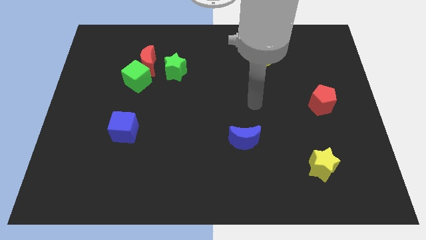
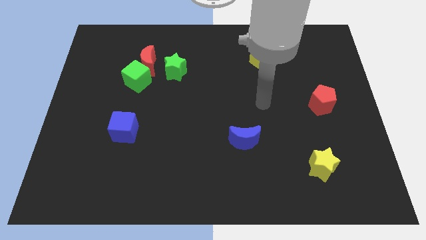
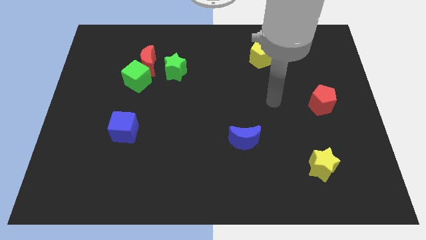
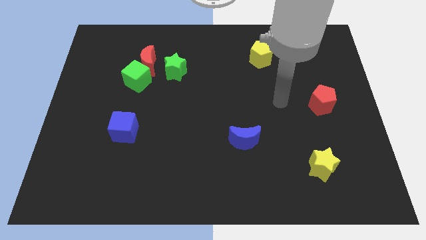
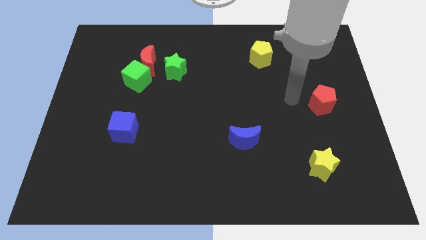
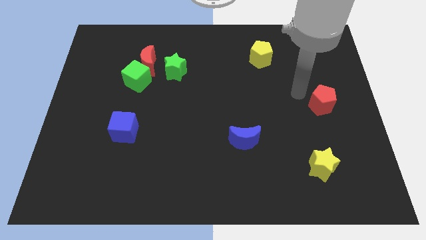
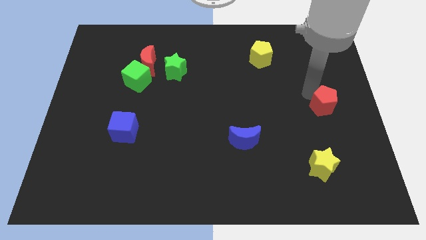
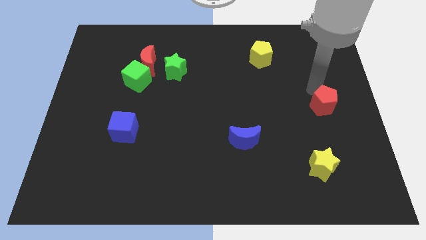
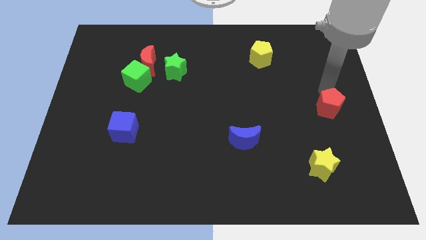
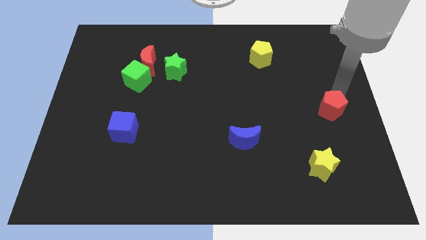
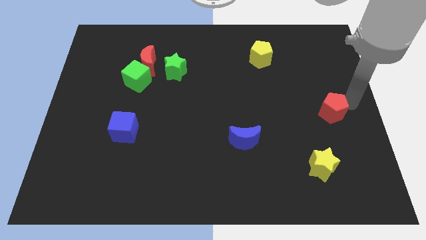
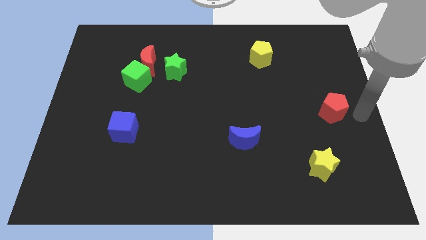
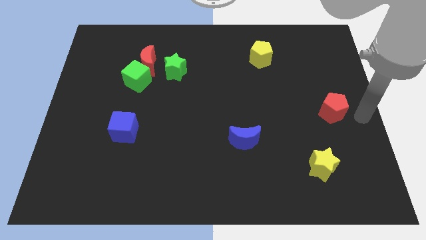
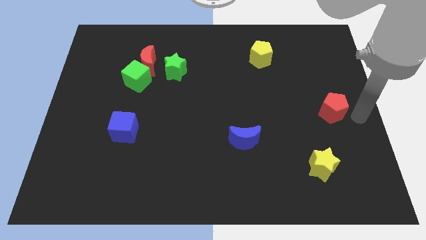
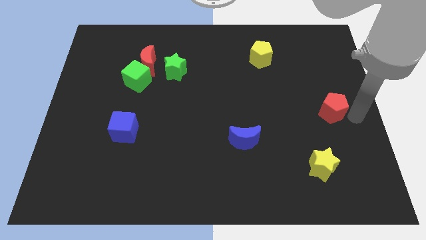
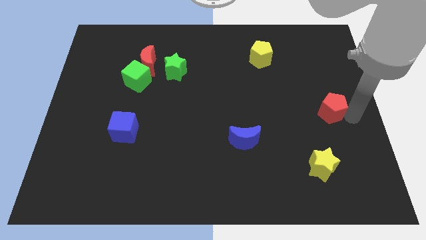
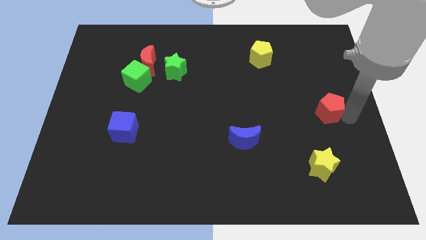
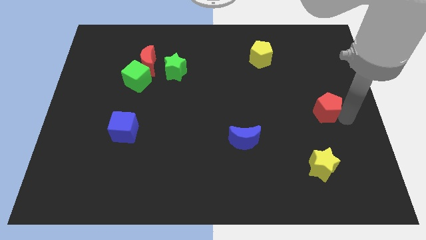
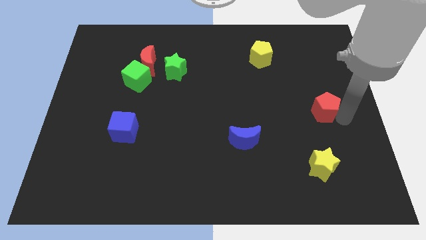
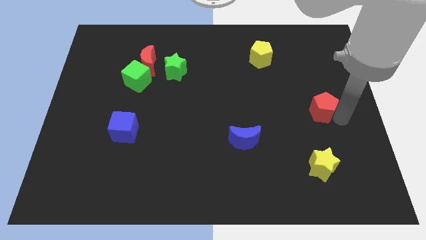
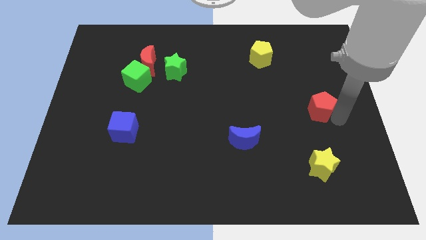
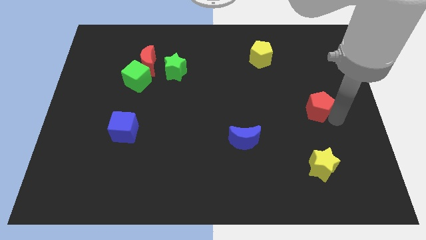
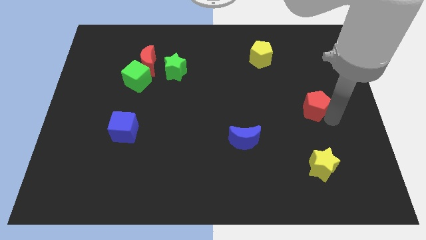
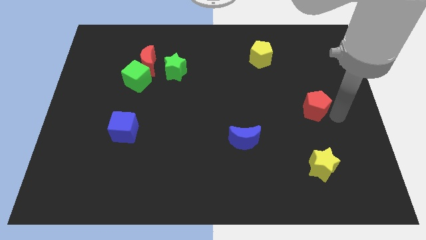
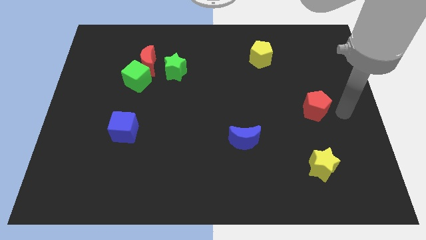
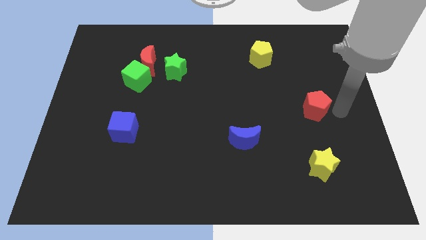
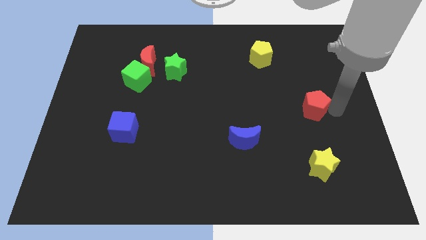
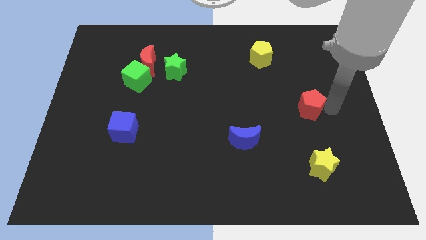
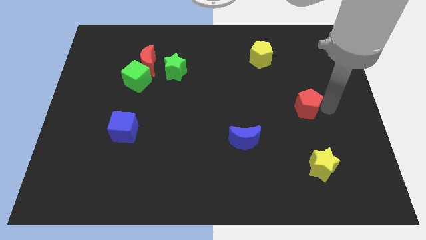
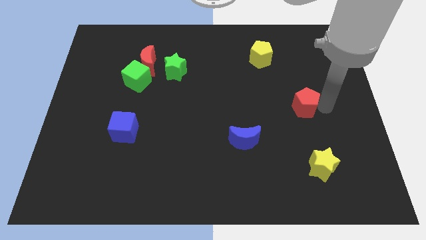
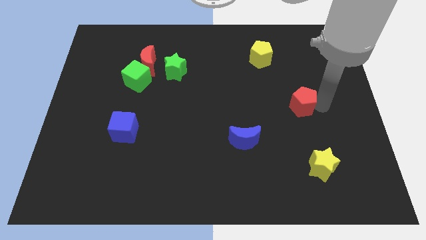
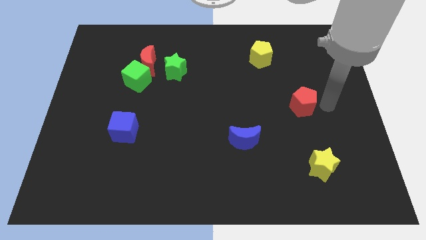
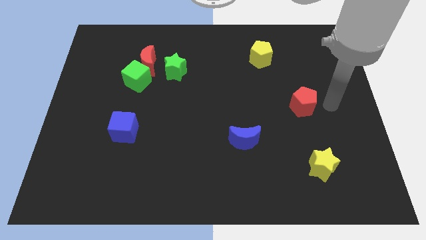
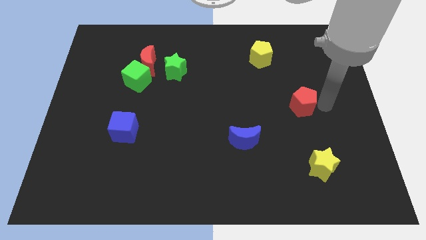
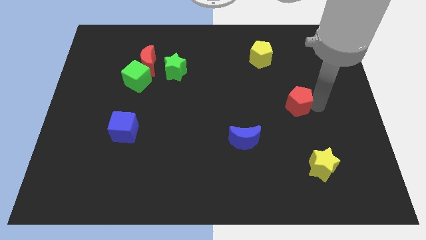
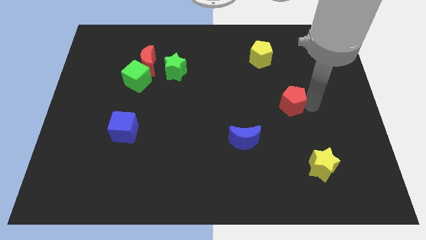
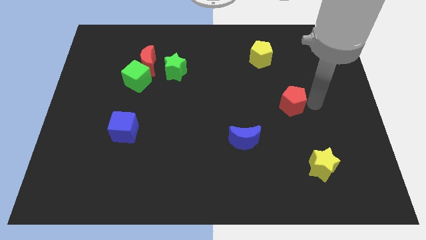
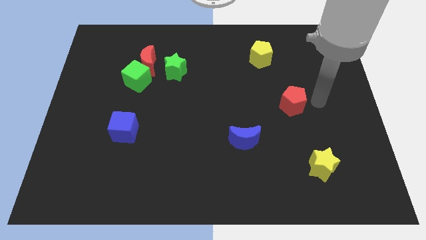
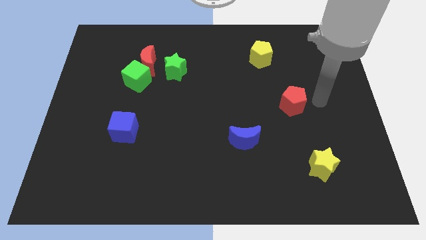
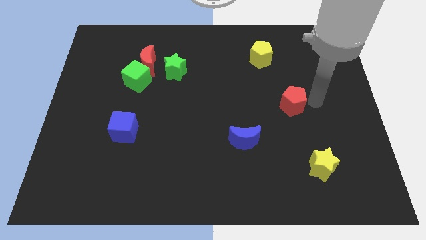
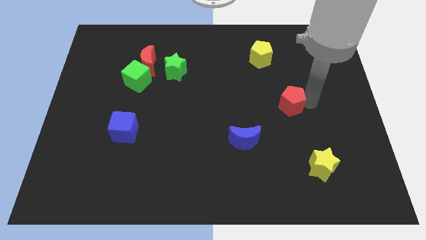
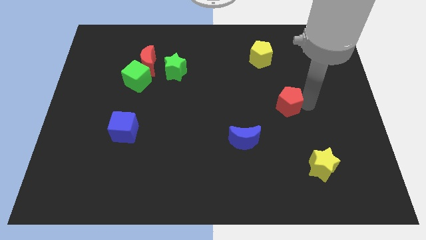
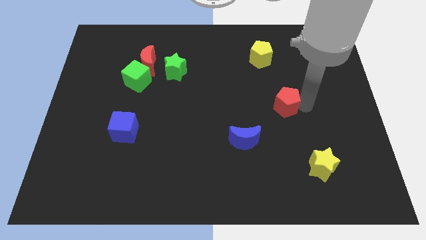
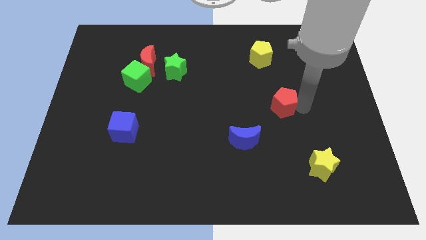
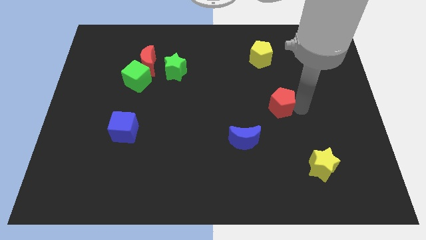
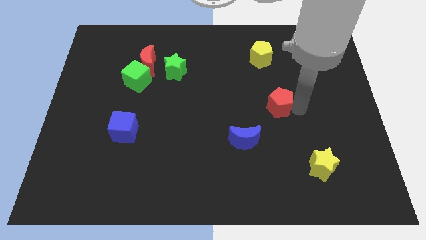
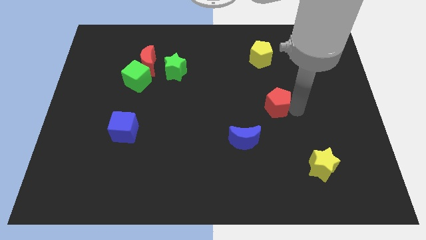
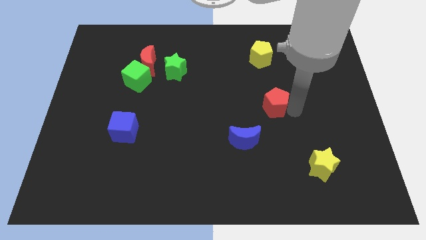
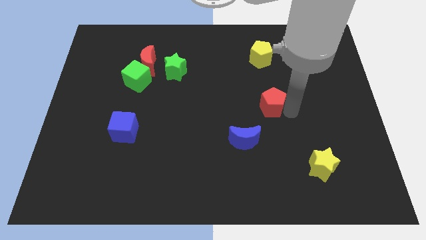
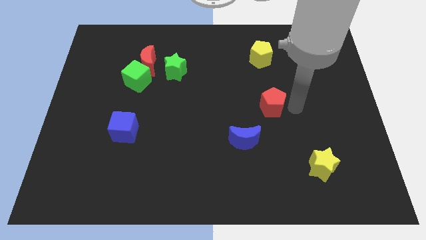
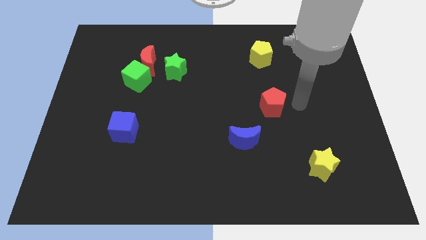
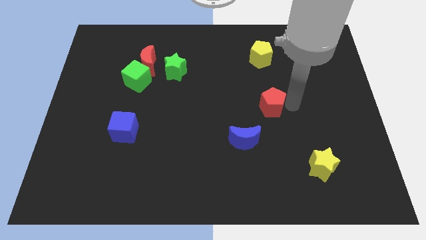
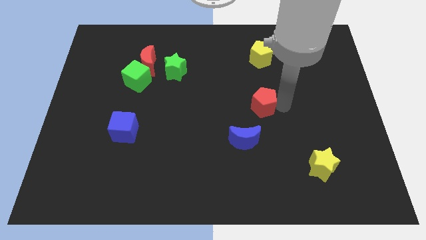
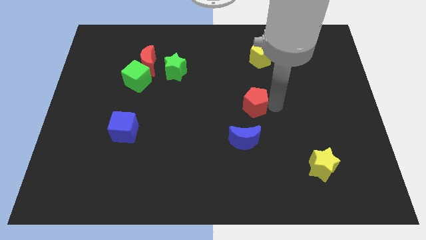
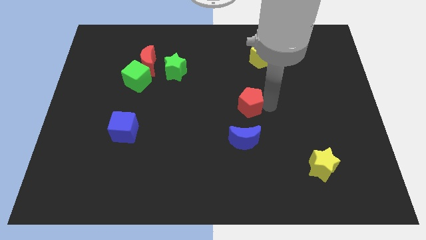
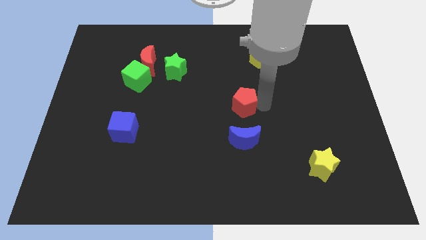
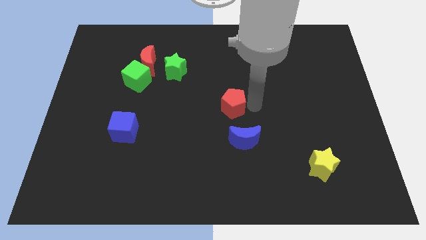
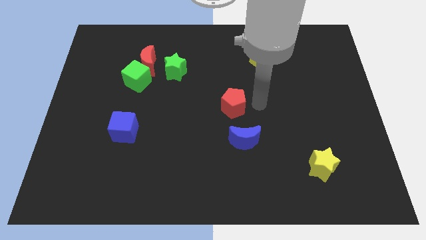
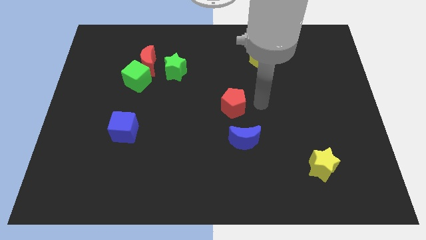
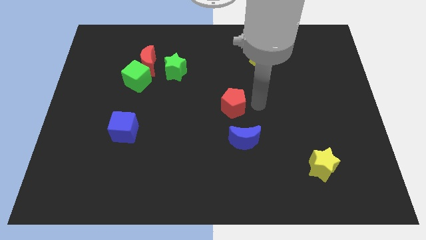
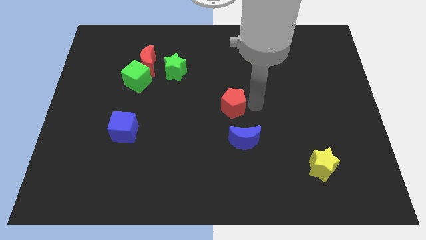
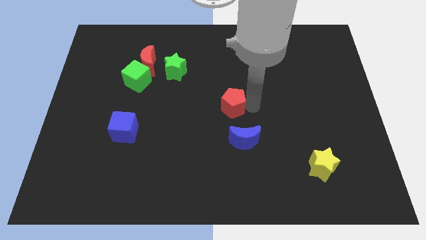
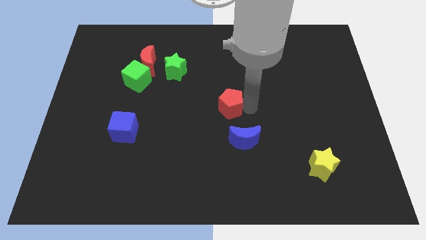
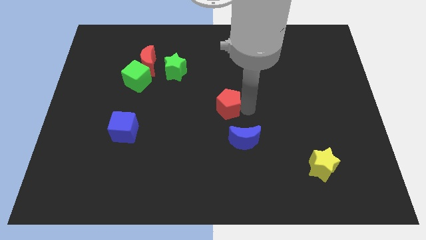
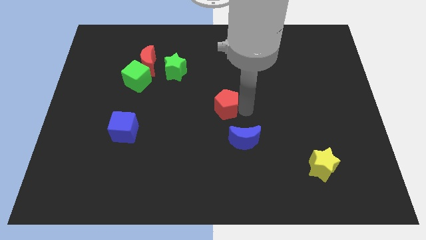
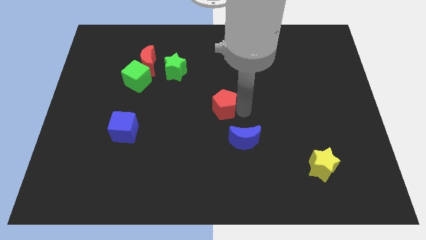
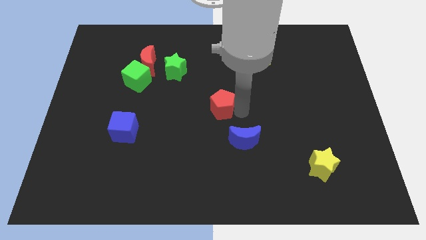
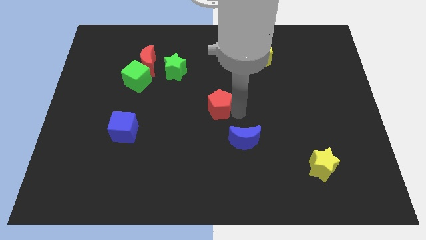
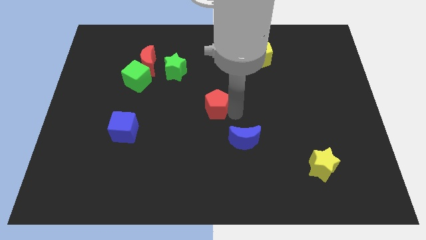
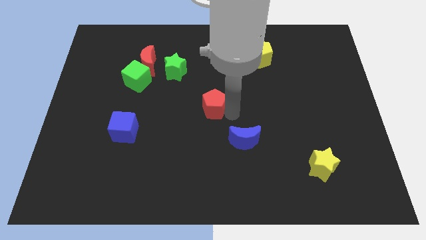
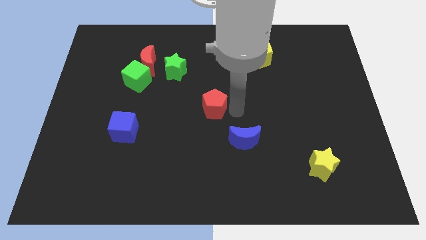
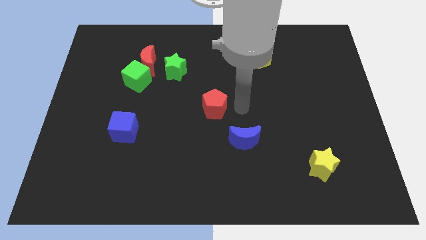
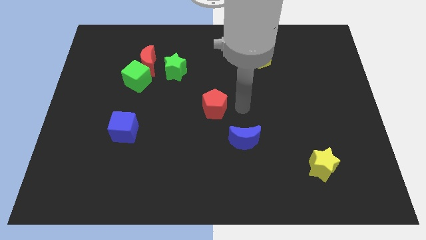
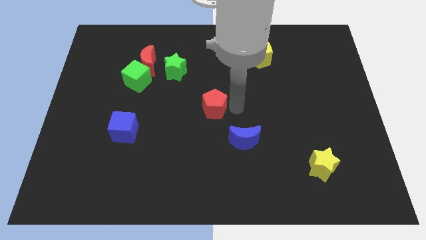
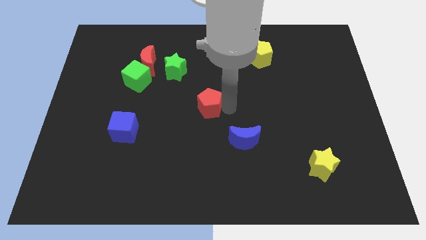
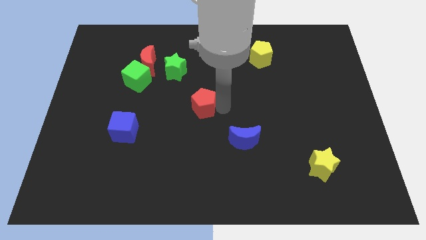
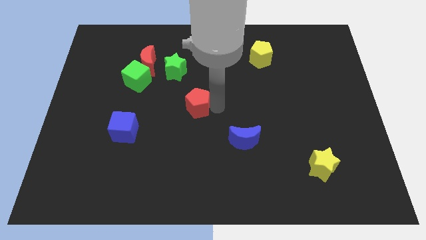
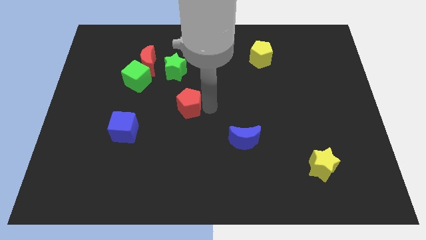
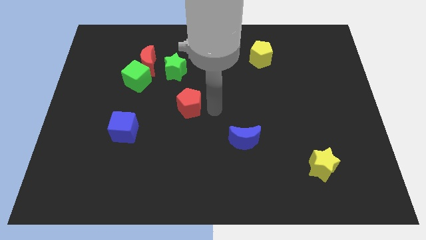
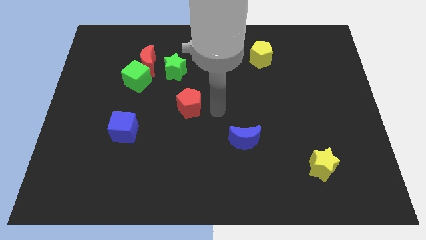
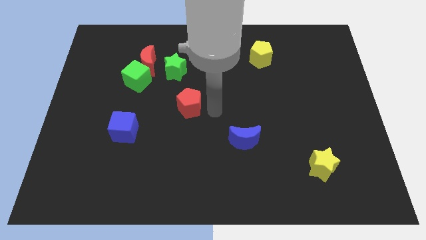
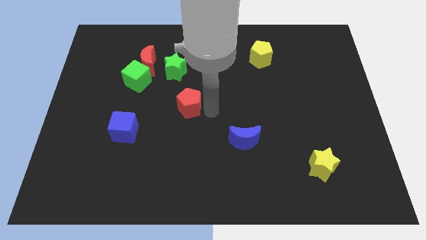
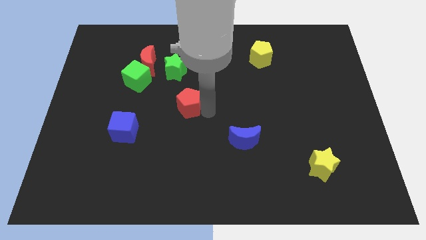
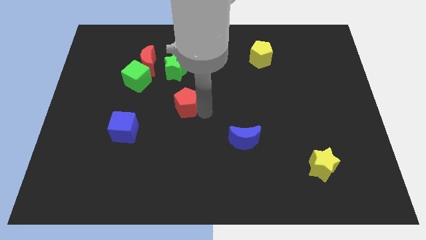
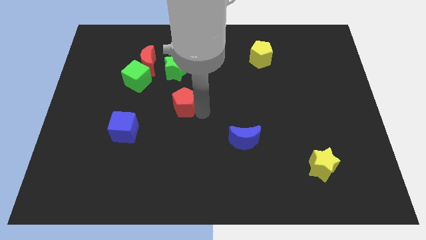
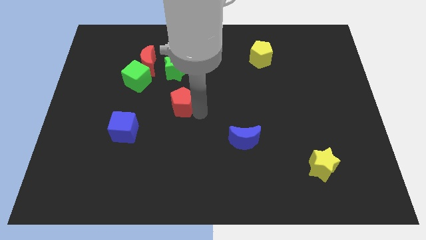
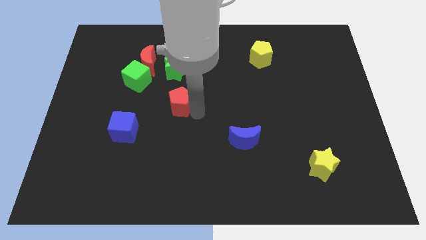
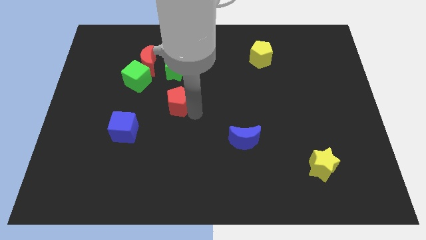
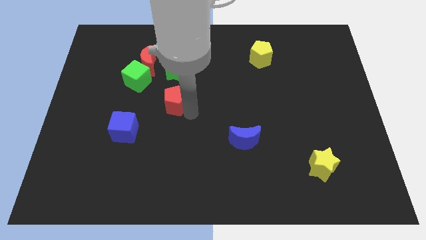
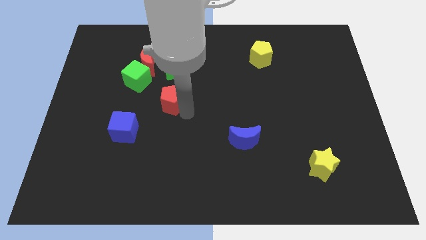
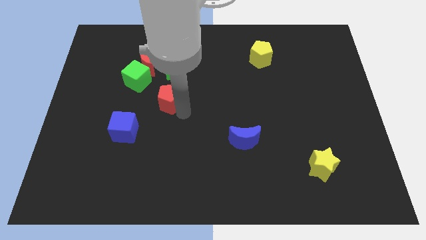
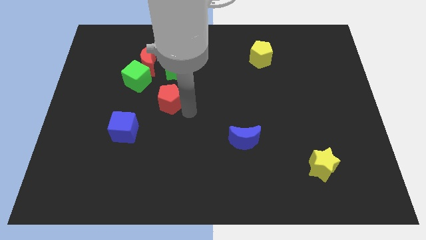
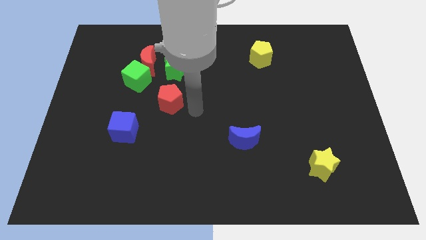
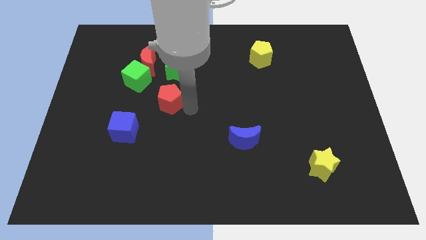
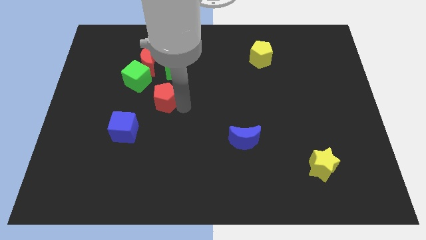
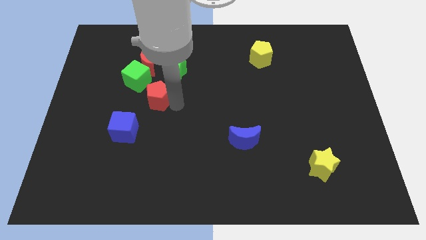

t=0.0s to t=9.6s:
put the red pentagon to the bottom side of the red moon
